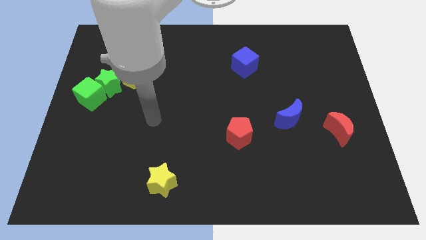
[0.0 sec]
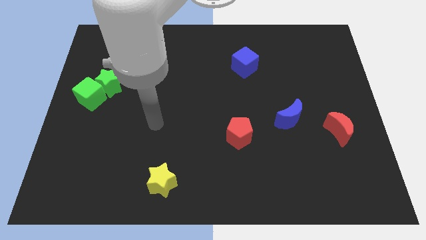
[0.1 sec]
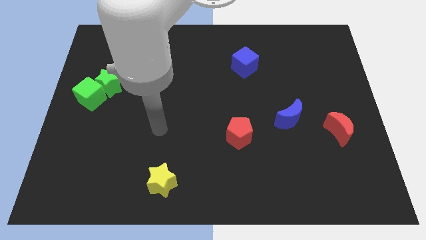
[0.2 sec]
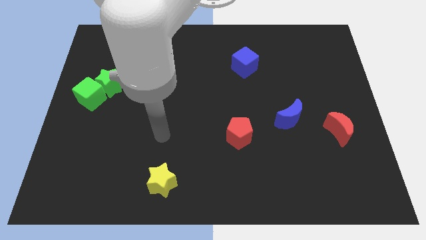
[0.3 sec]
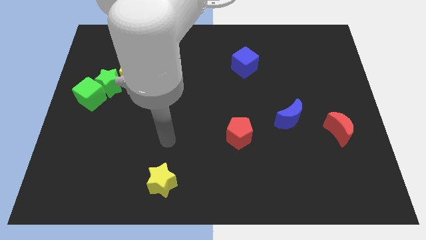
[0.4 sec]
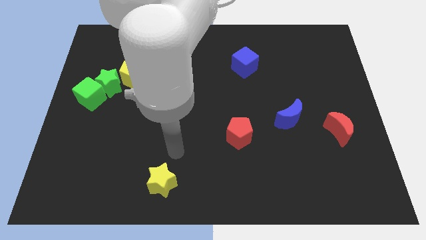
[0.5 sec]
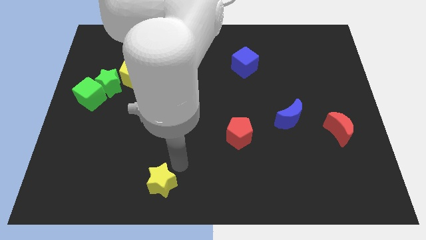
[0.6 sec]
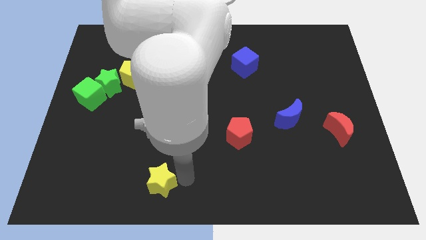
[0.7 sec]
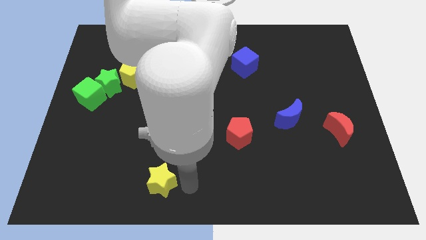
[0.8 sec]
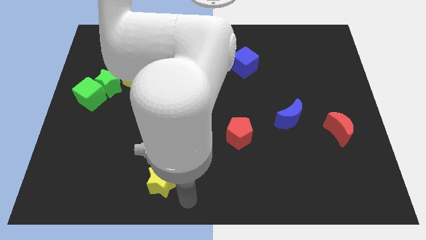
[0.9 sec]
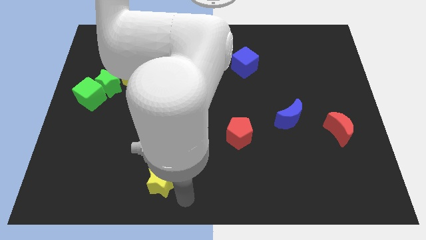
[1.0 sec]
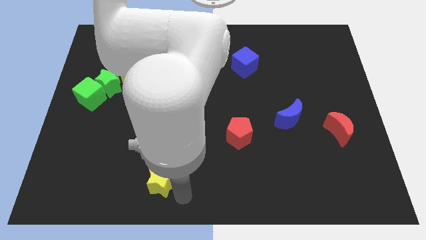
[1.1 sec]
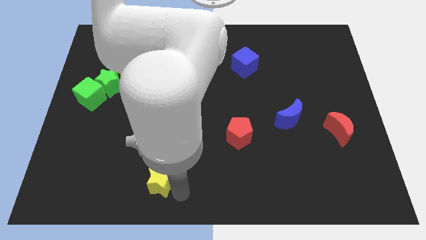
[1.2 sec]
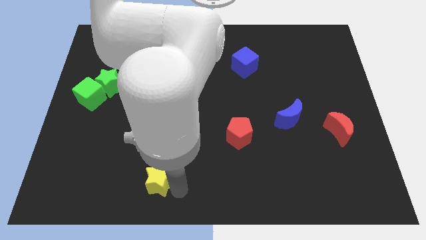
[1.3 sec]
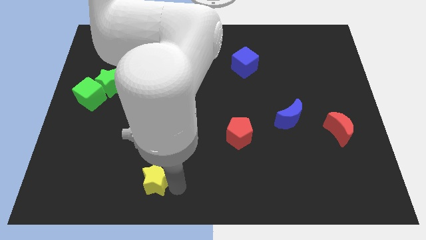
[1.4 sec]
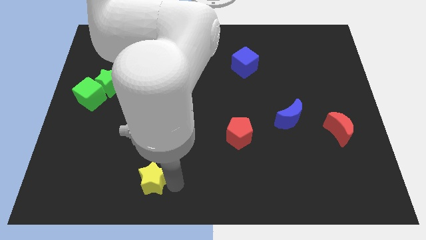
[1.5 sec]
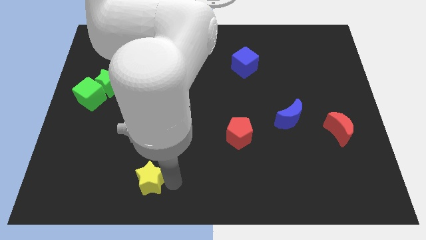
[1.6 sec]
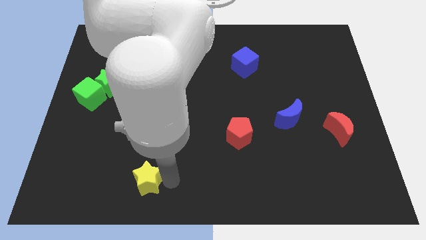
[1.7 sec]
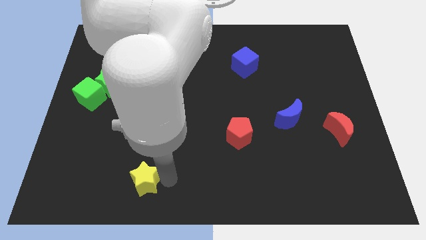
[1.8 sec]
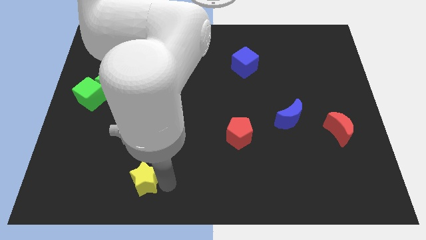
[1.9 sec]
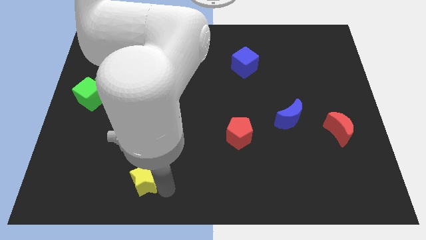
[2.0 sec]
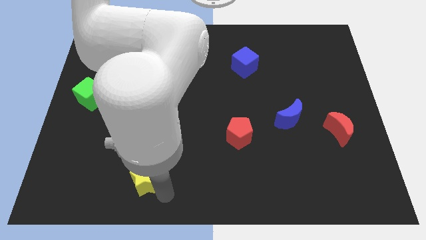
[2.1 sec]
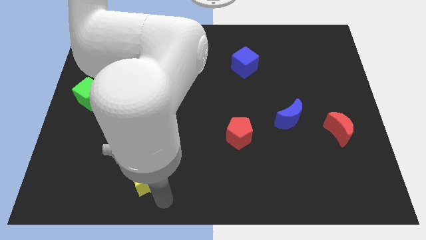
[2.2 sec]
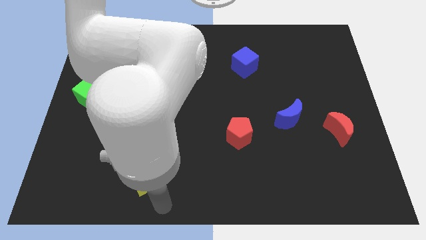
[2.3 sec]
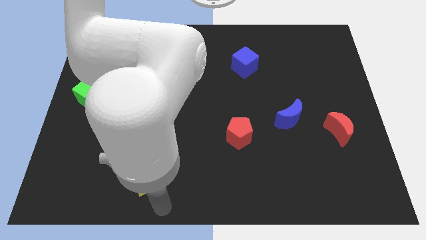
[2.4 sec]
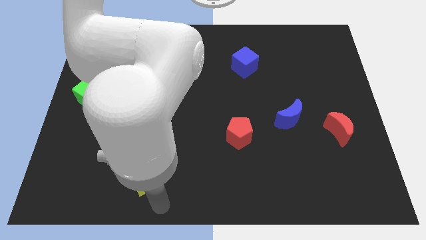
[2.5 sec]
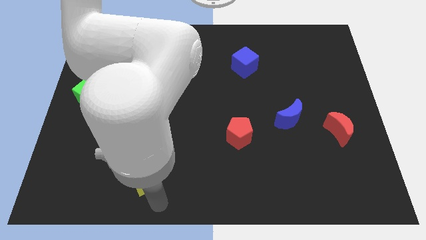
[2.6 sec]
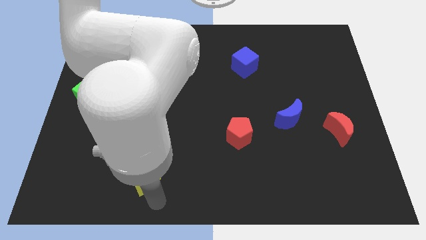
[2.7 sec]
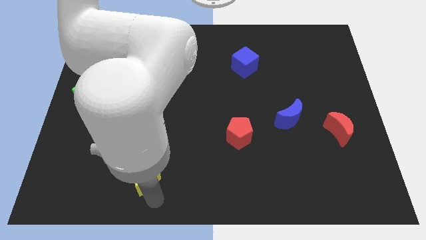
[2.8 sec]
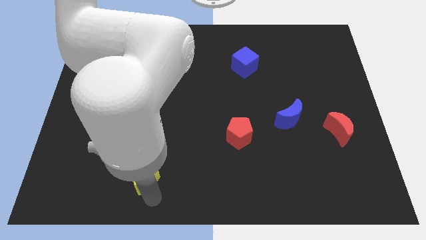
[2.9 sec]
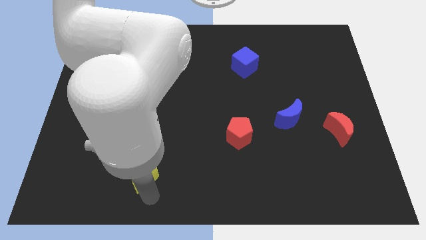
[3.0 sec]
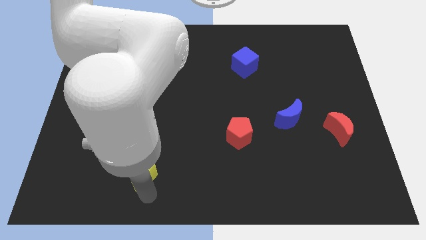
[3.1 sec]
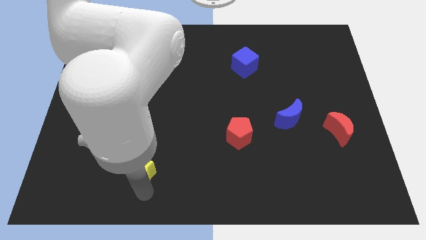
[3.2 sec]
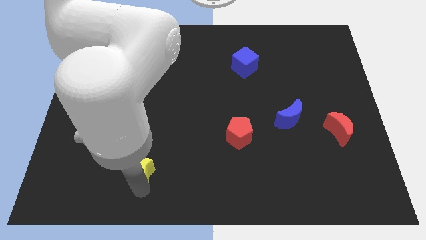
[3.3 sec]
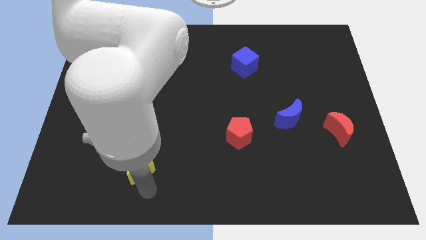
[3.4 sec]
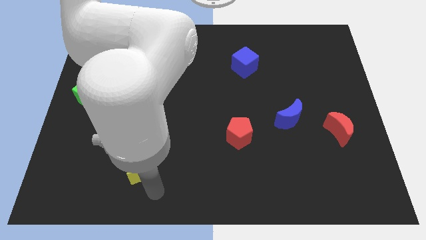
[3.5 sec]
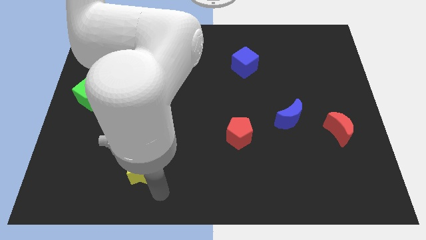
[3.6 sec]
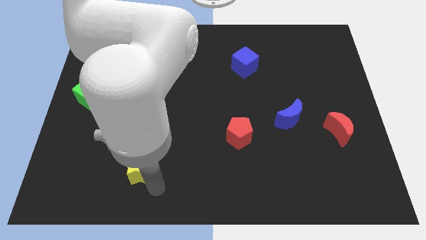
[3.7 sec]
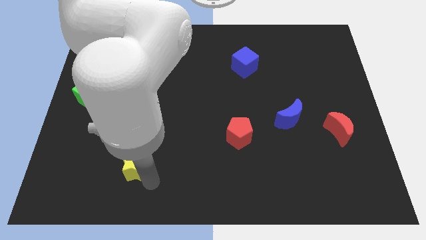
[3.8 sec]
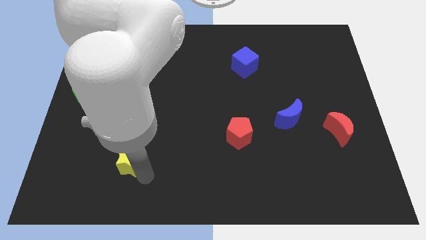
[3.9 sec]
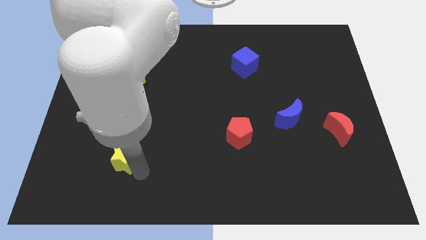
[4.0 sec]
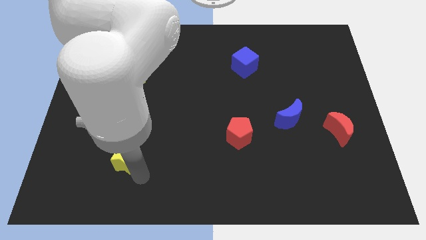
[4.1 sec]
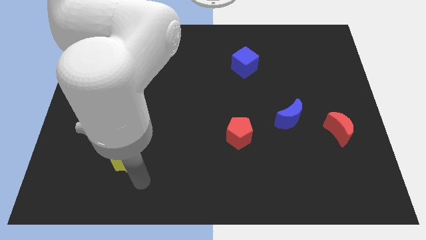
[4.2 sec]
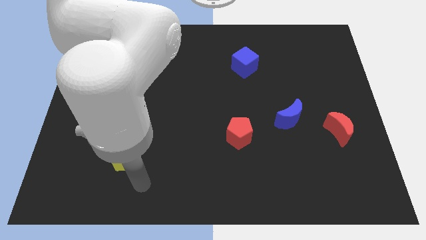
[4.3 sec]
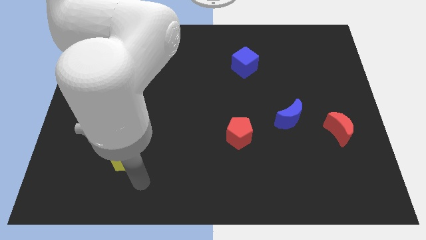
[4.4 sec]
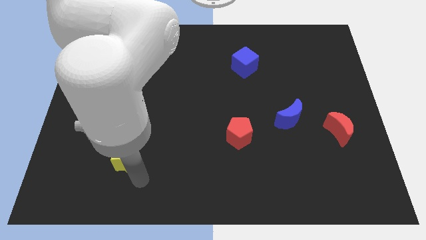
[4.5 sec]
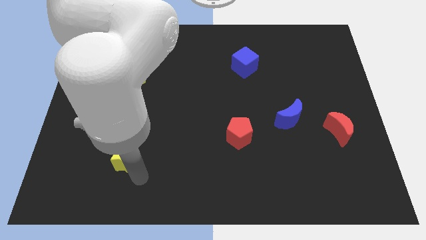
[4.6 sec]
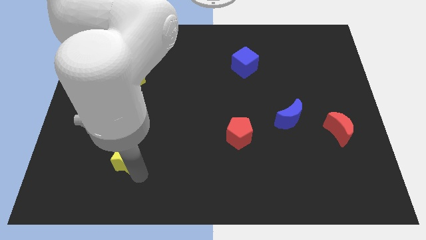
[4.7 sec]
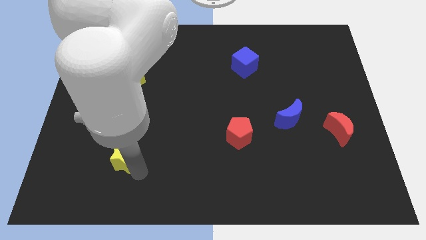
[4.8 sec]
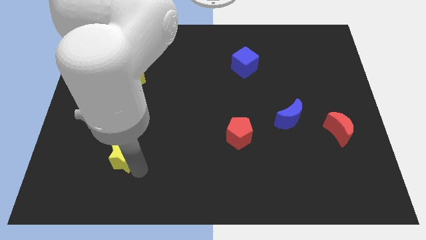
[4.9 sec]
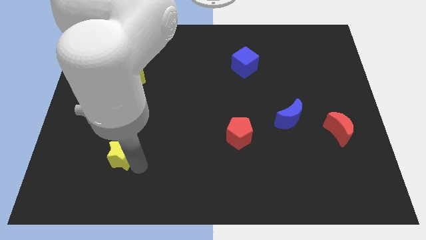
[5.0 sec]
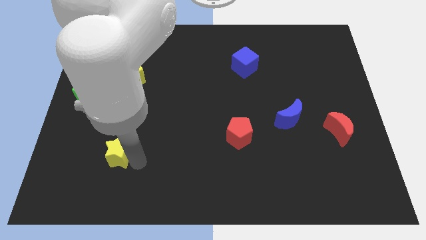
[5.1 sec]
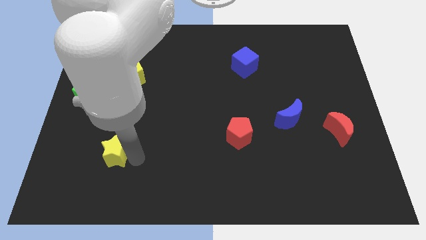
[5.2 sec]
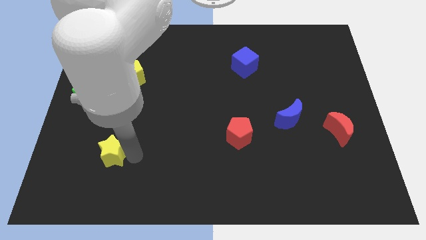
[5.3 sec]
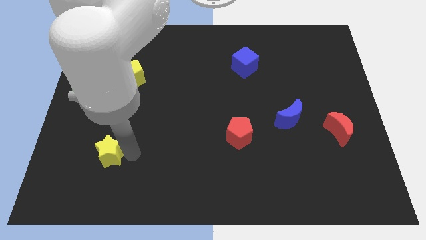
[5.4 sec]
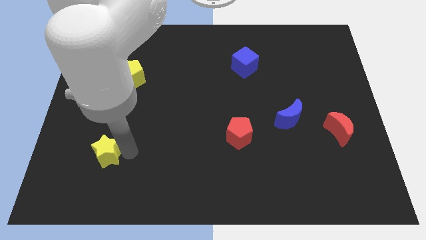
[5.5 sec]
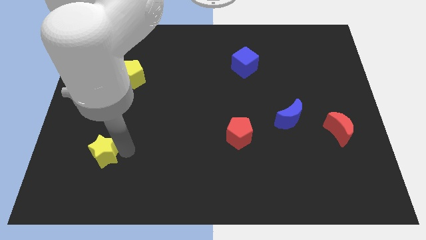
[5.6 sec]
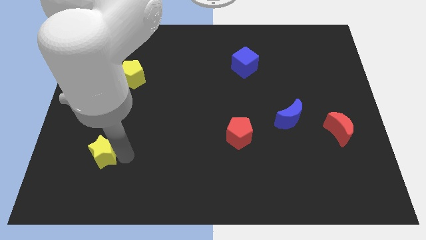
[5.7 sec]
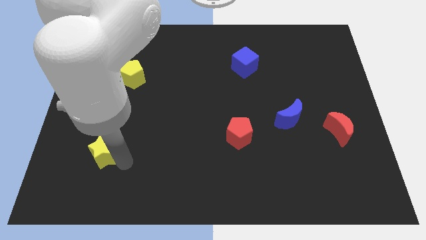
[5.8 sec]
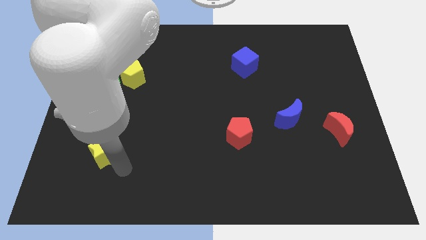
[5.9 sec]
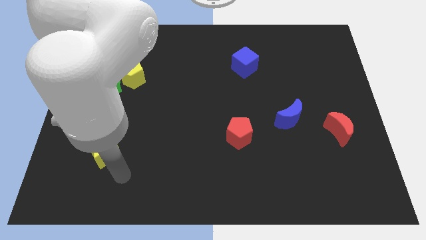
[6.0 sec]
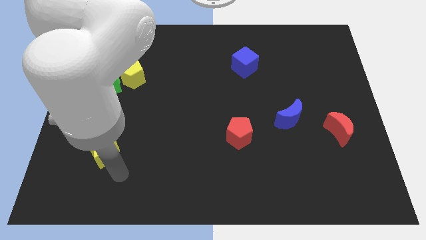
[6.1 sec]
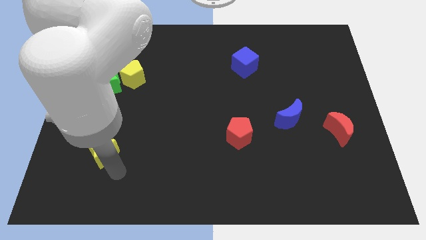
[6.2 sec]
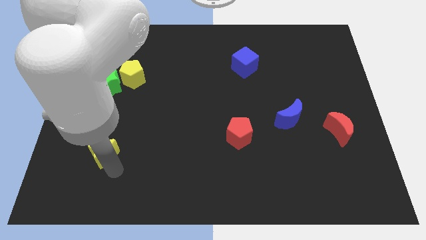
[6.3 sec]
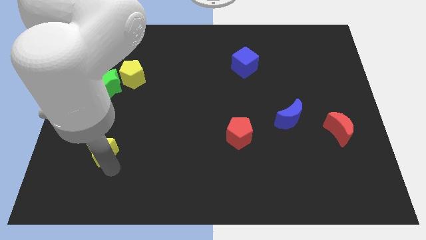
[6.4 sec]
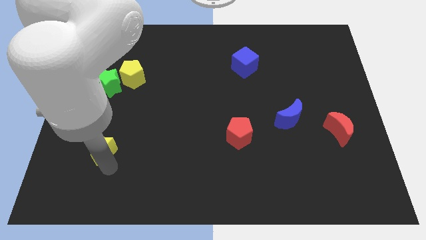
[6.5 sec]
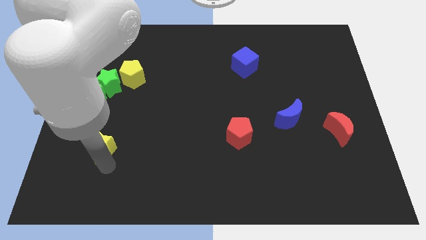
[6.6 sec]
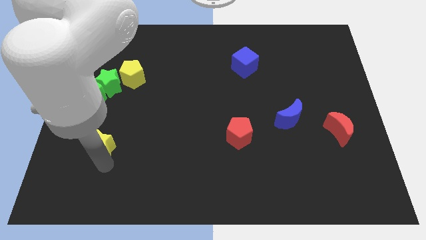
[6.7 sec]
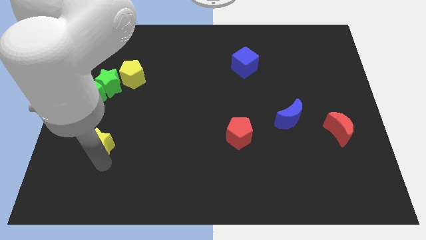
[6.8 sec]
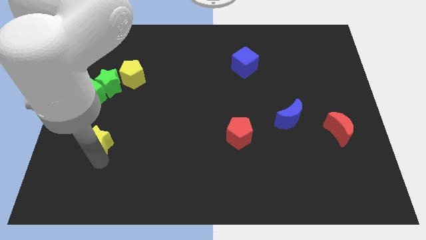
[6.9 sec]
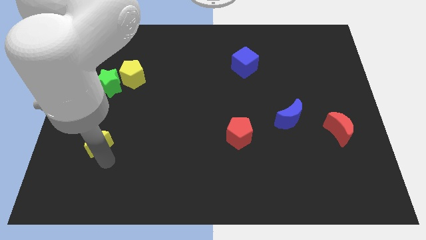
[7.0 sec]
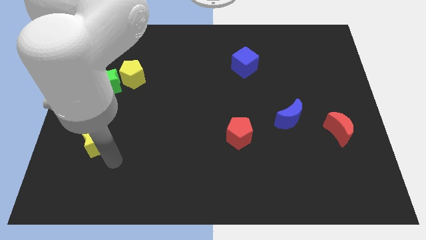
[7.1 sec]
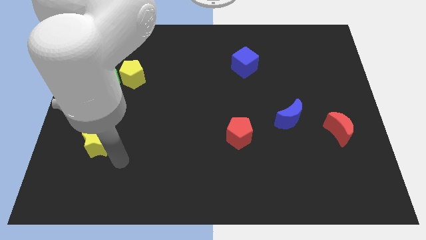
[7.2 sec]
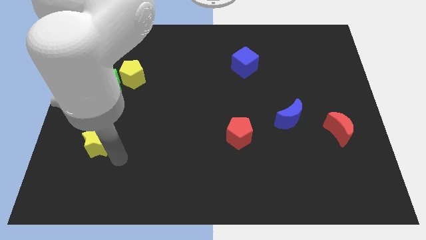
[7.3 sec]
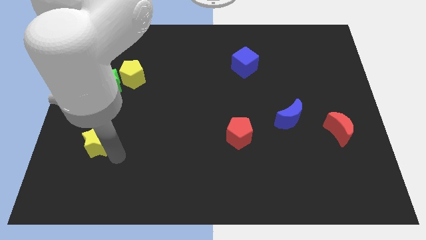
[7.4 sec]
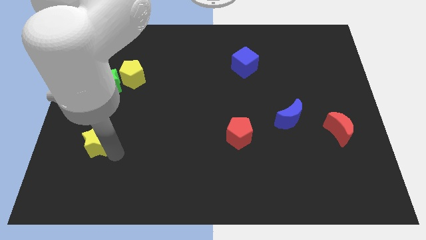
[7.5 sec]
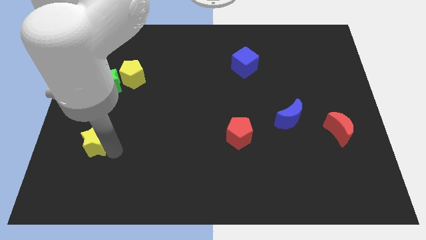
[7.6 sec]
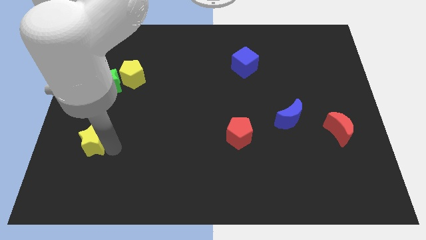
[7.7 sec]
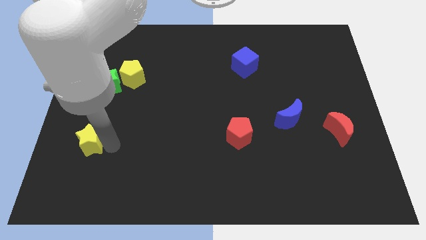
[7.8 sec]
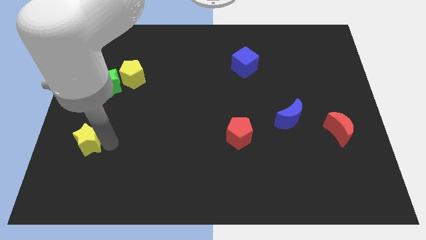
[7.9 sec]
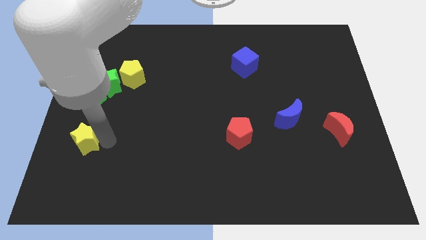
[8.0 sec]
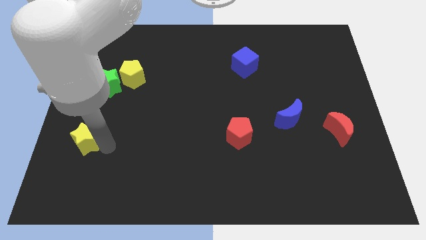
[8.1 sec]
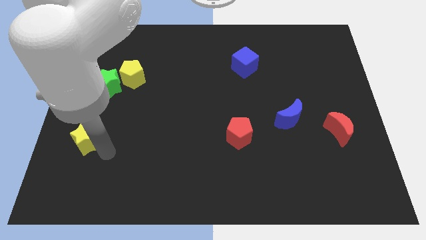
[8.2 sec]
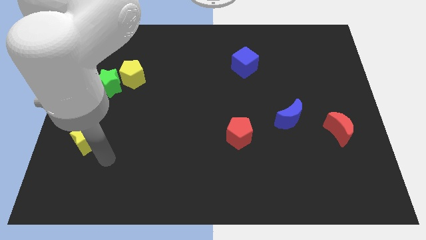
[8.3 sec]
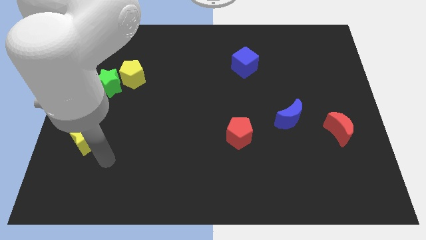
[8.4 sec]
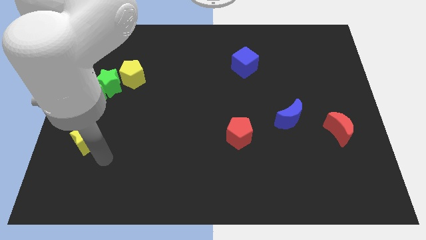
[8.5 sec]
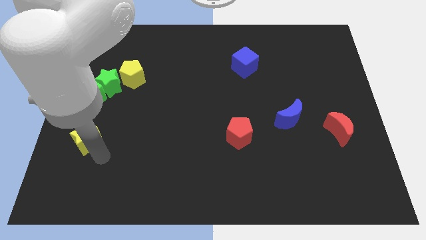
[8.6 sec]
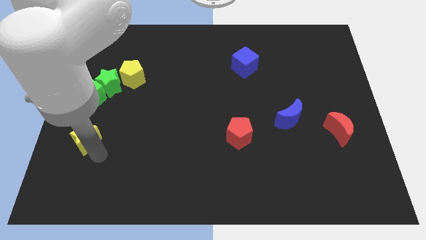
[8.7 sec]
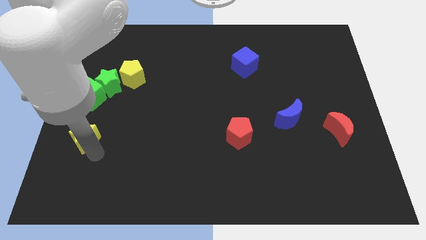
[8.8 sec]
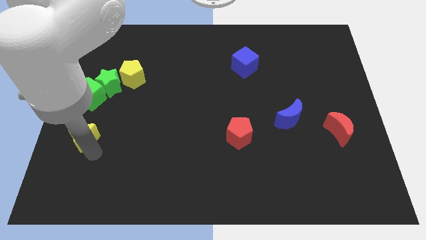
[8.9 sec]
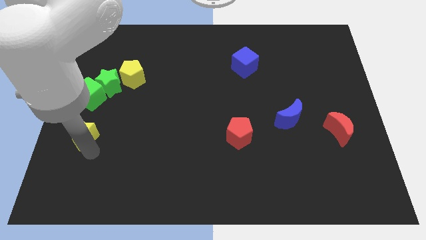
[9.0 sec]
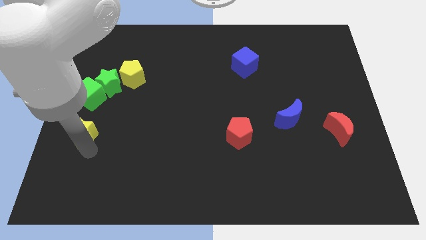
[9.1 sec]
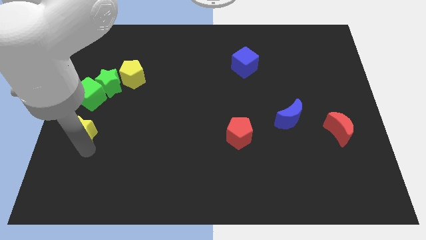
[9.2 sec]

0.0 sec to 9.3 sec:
put the yellow star to the left side
